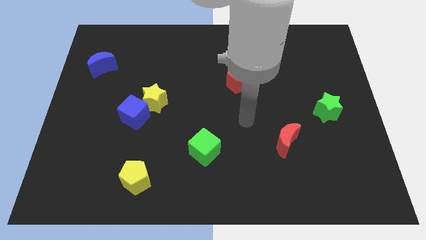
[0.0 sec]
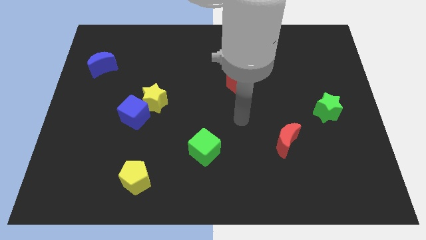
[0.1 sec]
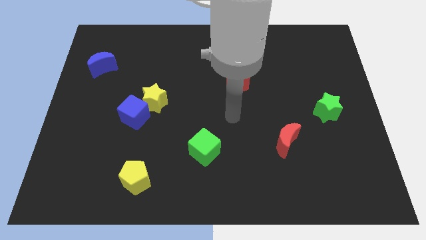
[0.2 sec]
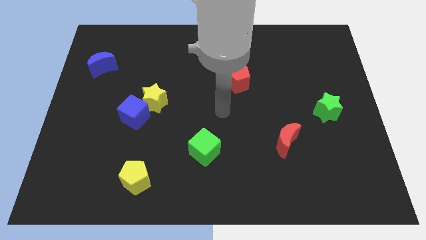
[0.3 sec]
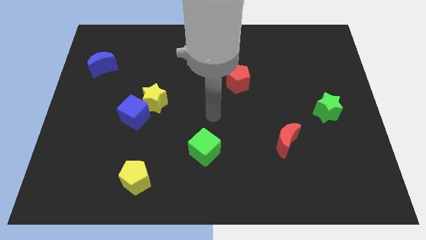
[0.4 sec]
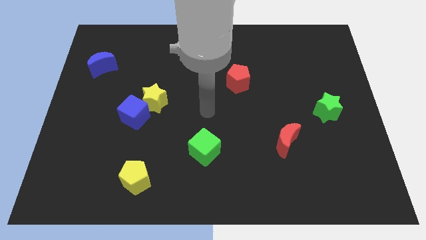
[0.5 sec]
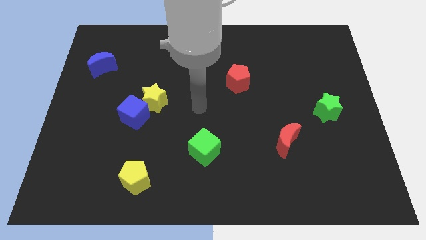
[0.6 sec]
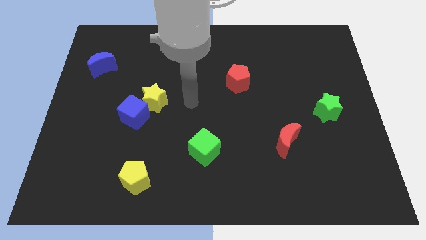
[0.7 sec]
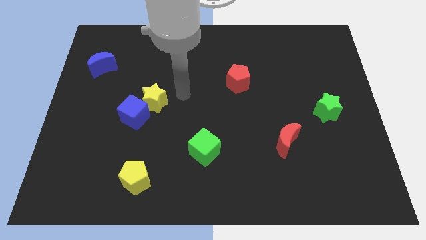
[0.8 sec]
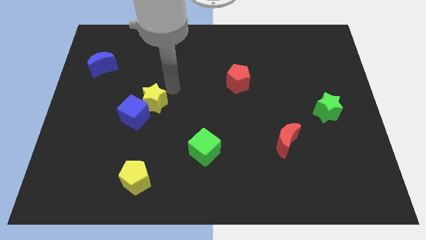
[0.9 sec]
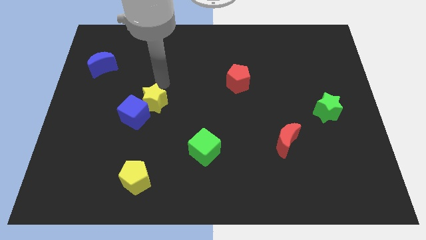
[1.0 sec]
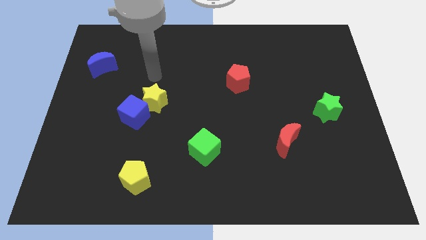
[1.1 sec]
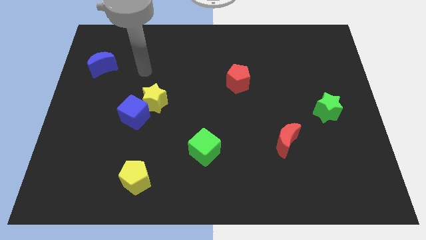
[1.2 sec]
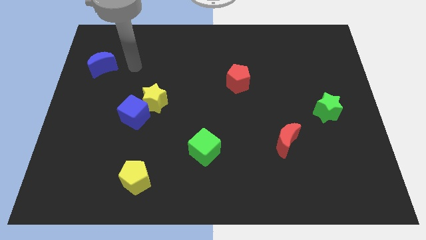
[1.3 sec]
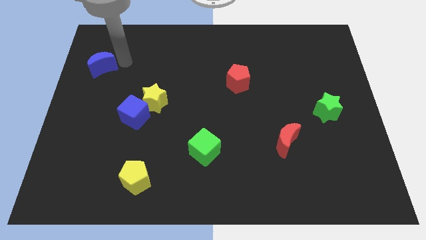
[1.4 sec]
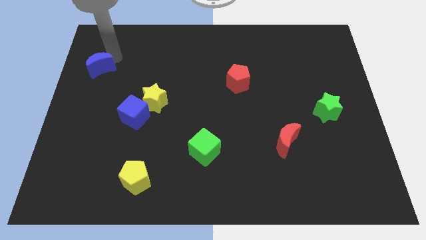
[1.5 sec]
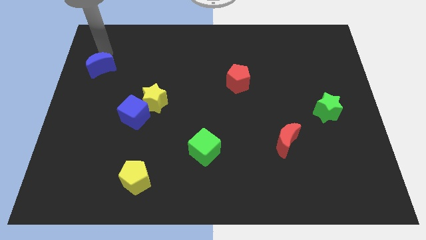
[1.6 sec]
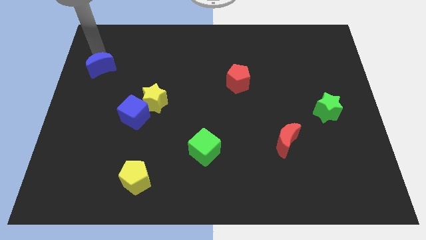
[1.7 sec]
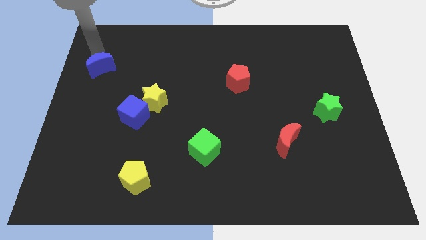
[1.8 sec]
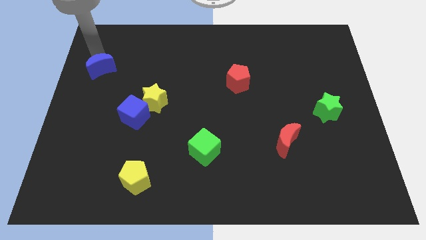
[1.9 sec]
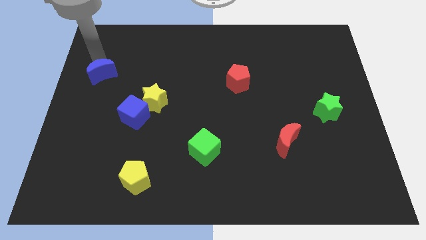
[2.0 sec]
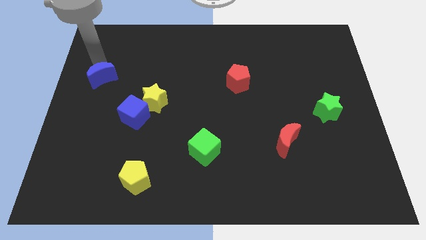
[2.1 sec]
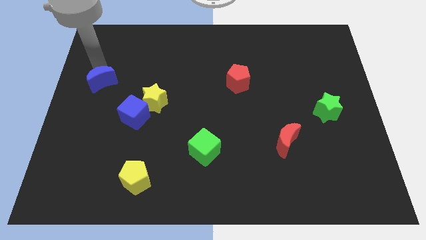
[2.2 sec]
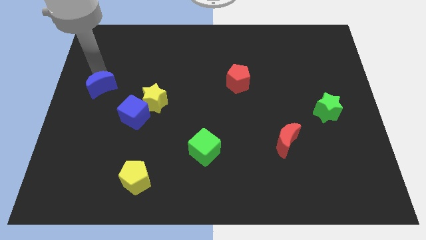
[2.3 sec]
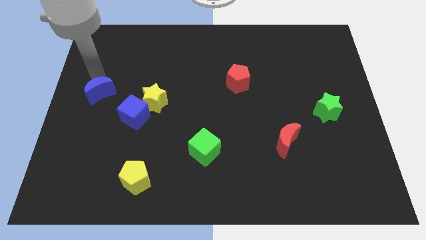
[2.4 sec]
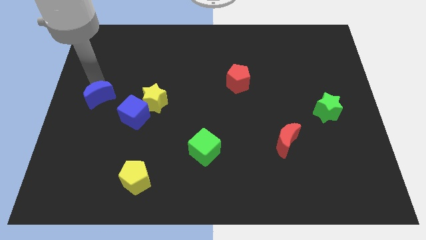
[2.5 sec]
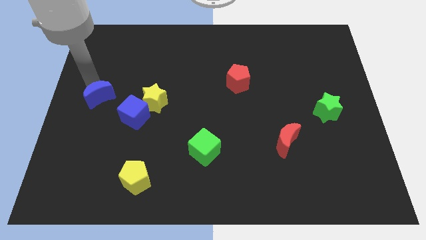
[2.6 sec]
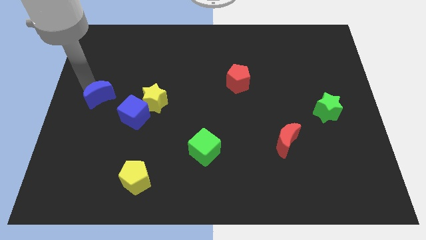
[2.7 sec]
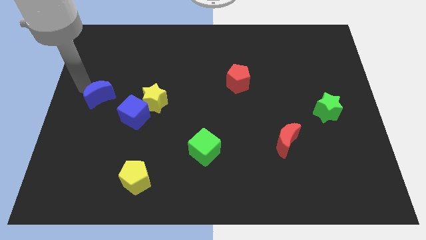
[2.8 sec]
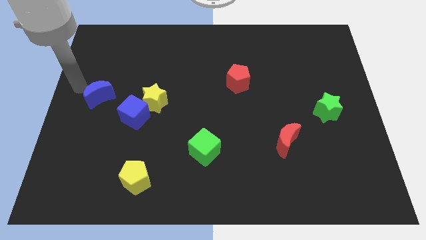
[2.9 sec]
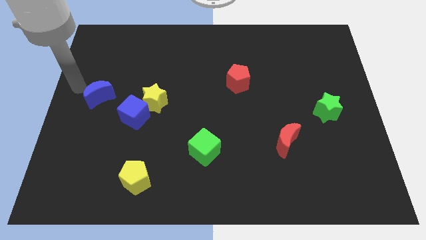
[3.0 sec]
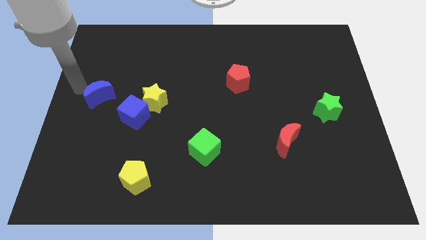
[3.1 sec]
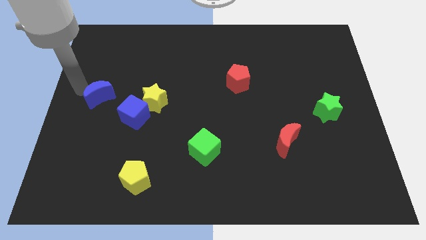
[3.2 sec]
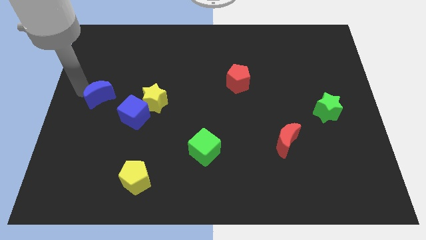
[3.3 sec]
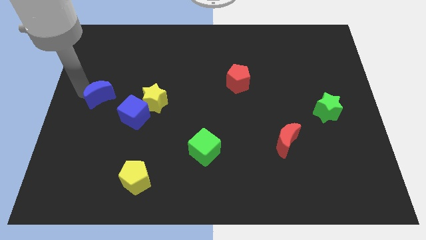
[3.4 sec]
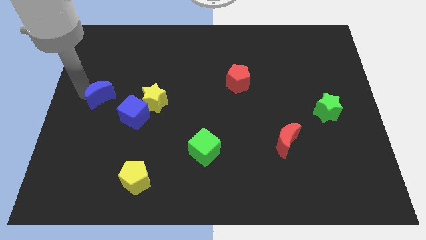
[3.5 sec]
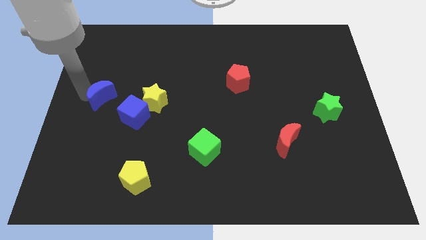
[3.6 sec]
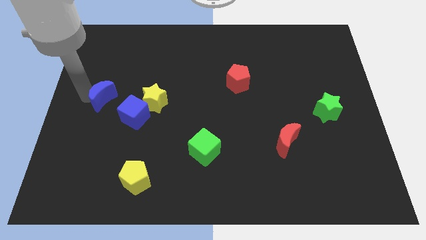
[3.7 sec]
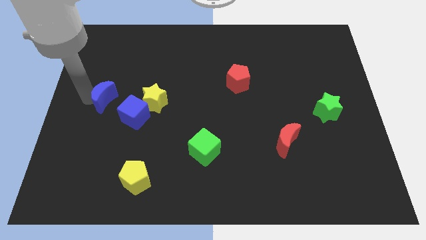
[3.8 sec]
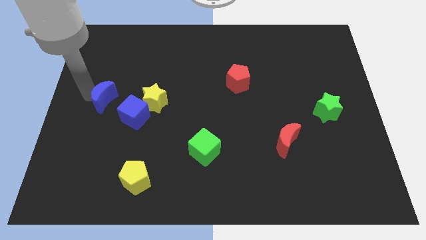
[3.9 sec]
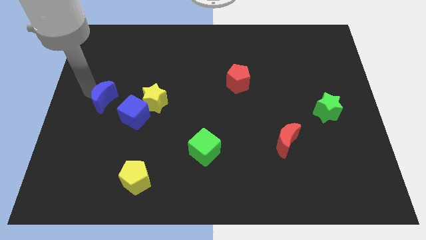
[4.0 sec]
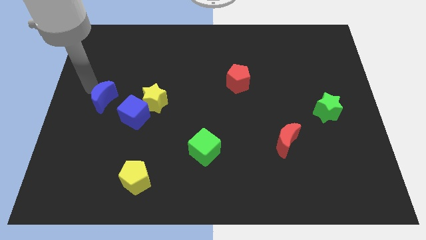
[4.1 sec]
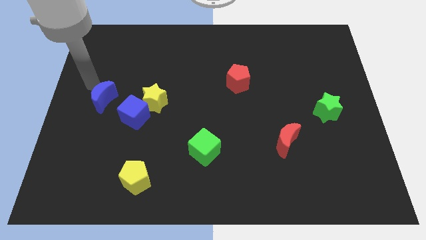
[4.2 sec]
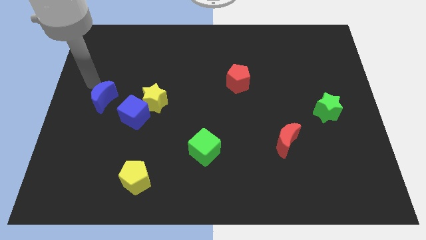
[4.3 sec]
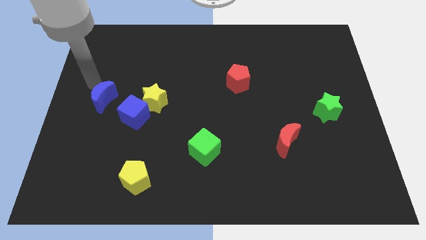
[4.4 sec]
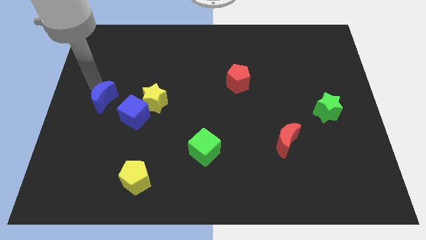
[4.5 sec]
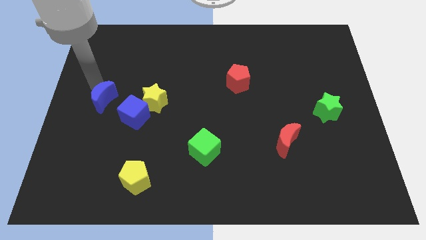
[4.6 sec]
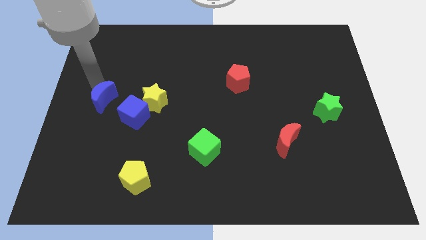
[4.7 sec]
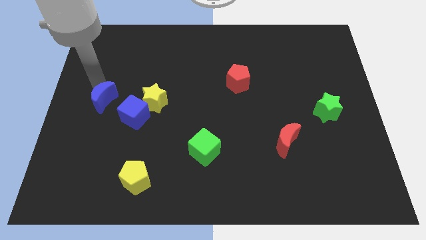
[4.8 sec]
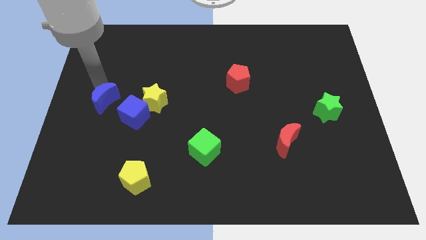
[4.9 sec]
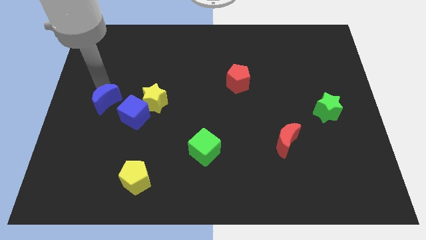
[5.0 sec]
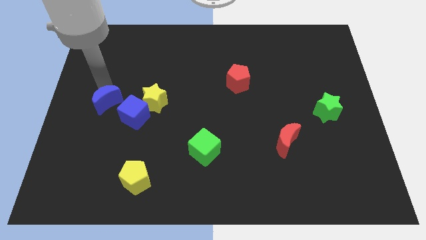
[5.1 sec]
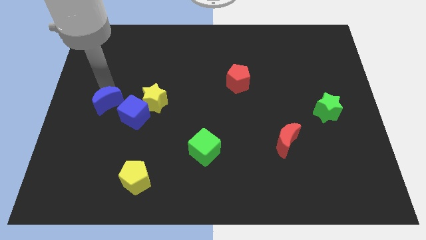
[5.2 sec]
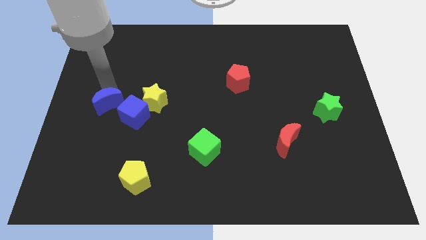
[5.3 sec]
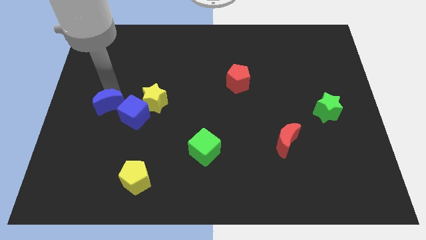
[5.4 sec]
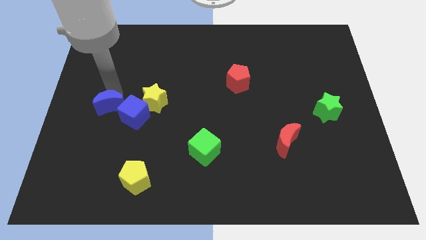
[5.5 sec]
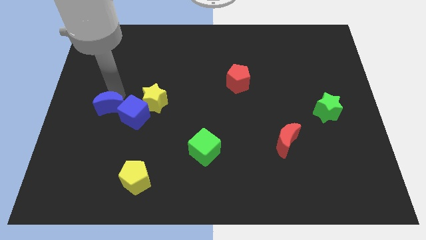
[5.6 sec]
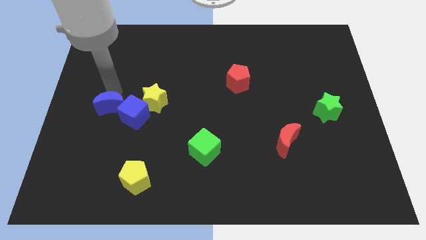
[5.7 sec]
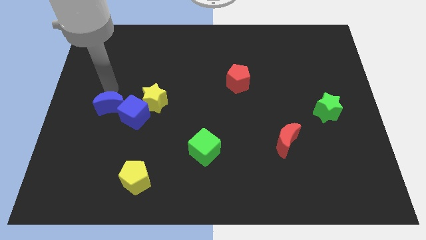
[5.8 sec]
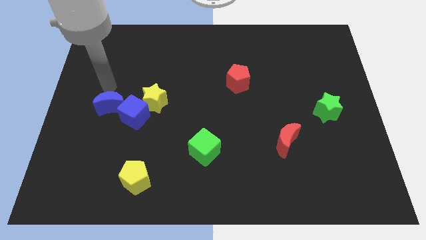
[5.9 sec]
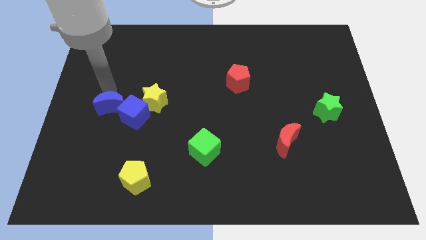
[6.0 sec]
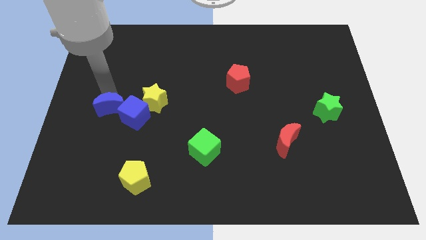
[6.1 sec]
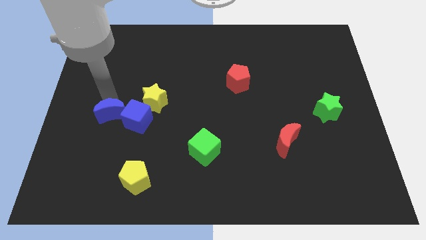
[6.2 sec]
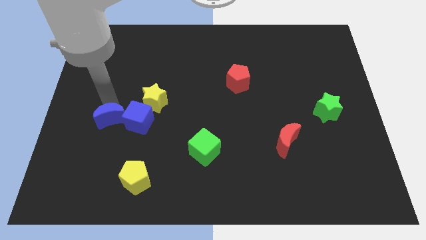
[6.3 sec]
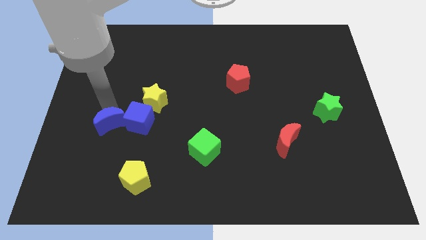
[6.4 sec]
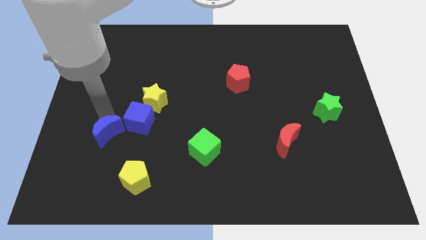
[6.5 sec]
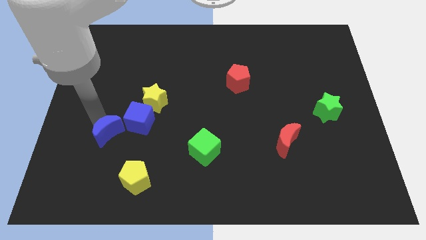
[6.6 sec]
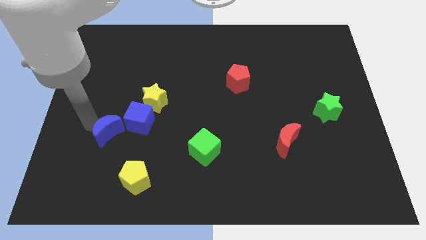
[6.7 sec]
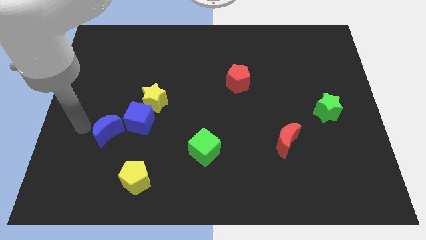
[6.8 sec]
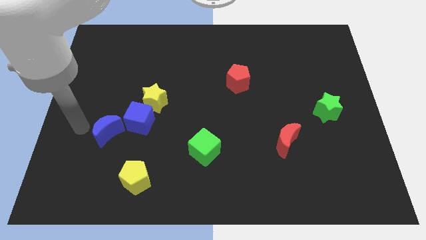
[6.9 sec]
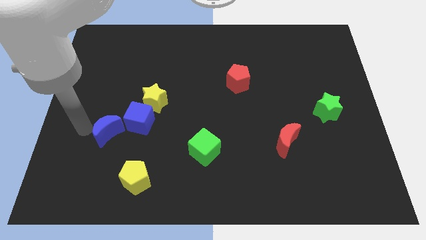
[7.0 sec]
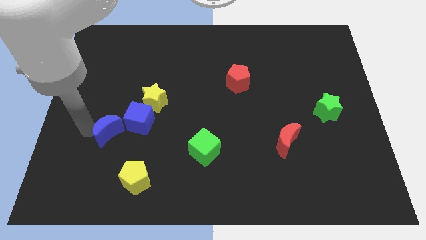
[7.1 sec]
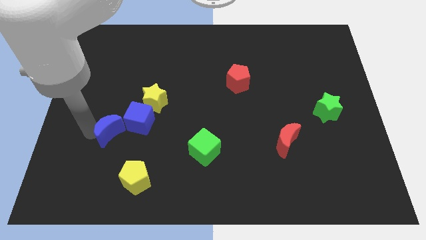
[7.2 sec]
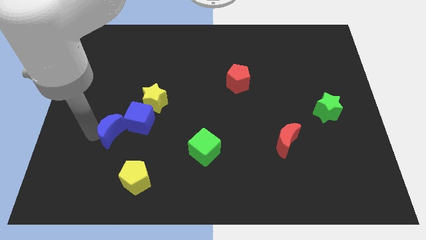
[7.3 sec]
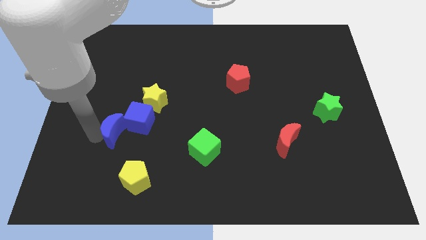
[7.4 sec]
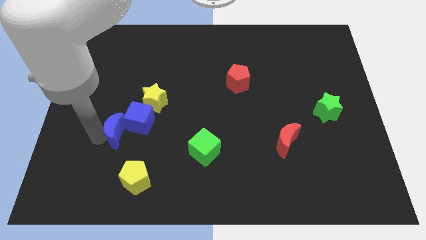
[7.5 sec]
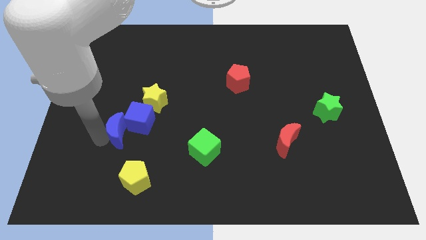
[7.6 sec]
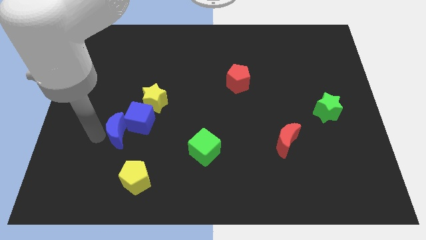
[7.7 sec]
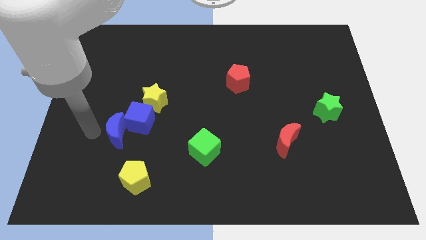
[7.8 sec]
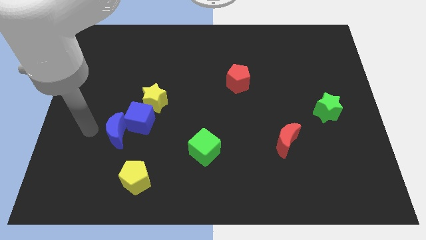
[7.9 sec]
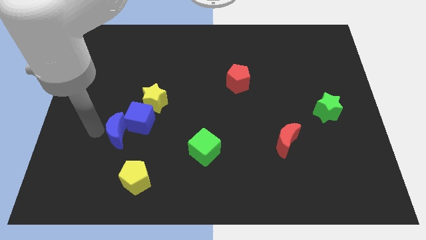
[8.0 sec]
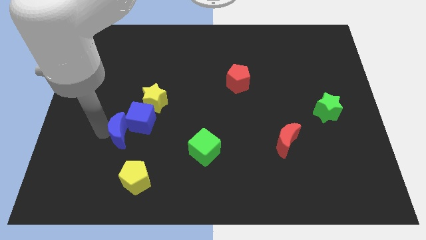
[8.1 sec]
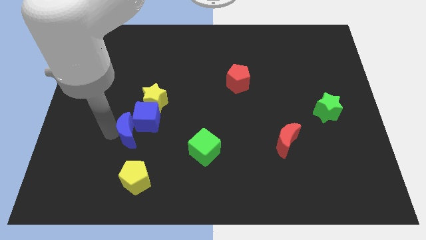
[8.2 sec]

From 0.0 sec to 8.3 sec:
move the blue moon above the yellow pentagon
